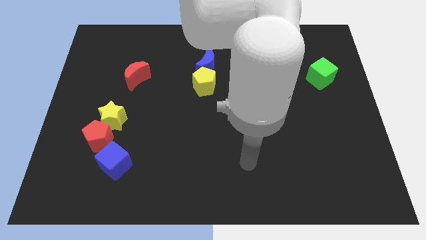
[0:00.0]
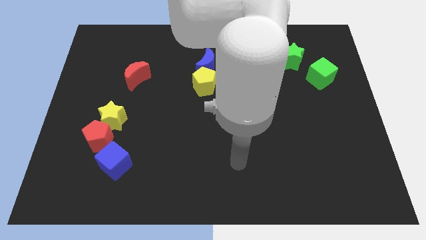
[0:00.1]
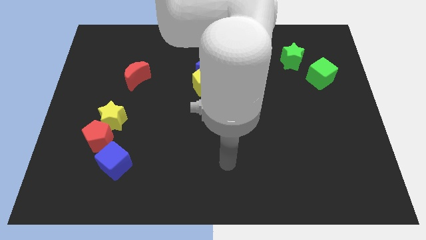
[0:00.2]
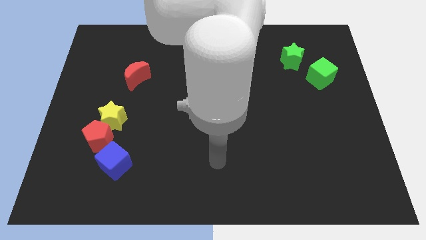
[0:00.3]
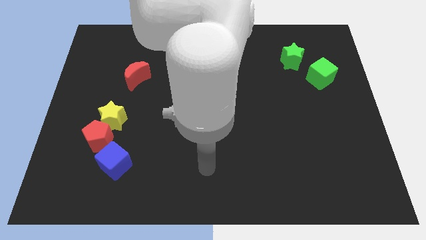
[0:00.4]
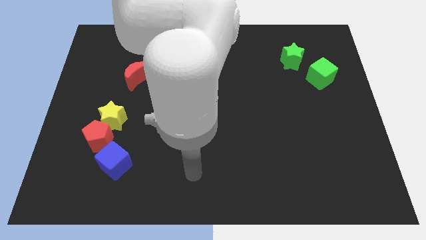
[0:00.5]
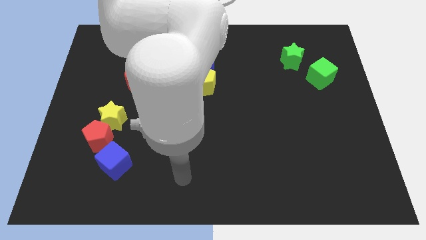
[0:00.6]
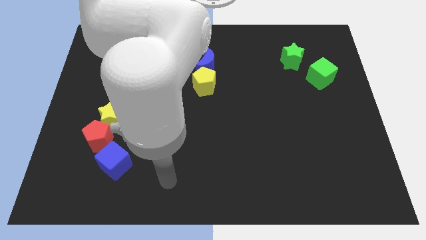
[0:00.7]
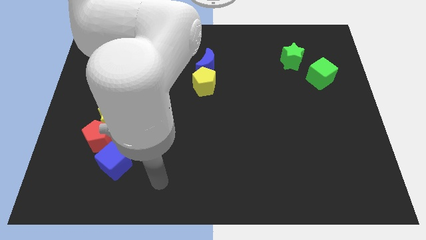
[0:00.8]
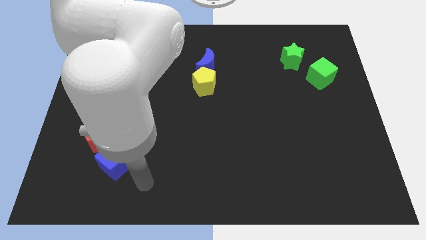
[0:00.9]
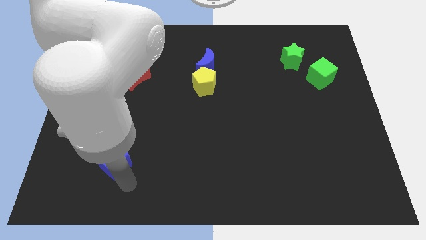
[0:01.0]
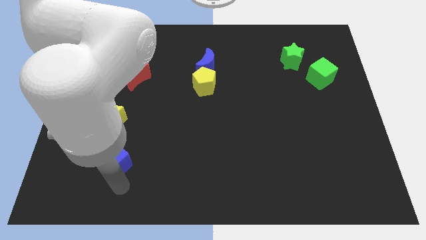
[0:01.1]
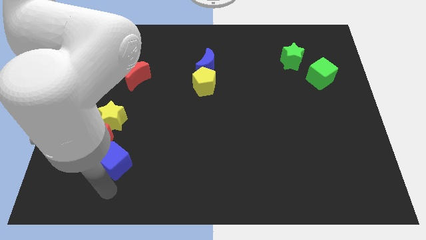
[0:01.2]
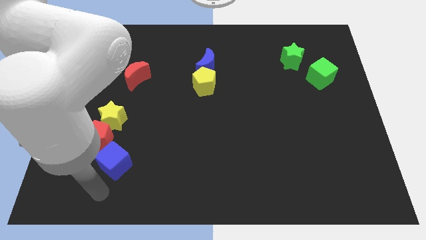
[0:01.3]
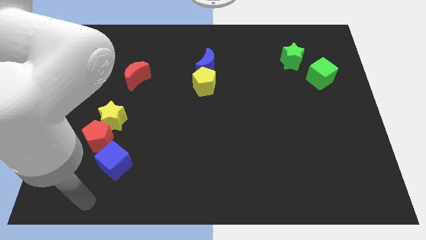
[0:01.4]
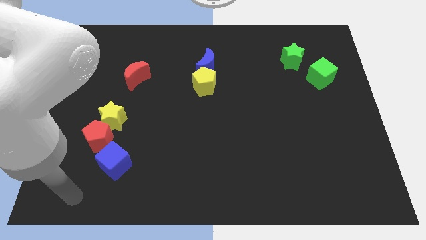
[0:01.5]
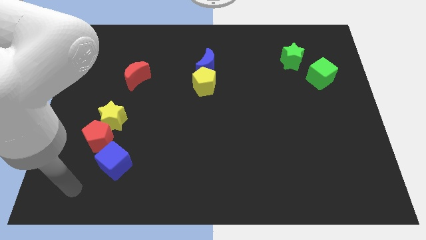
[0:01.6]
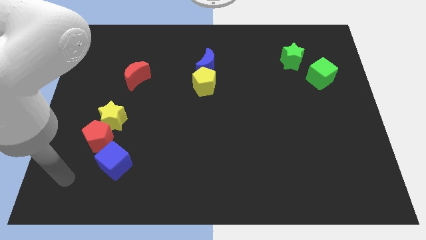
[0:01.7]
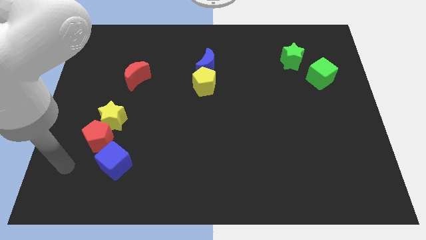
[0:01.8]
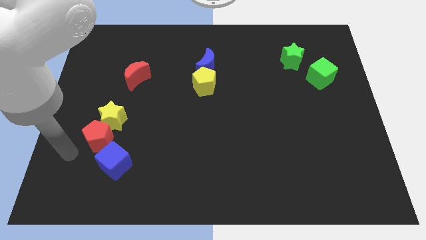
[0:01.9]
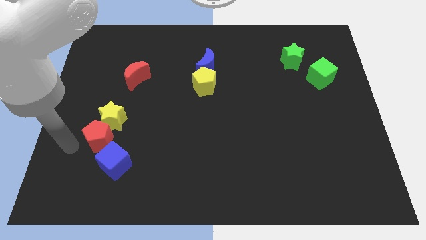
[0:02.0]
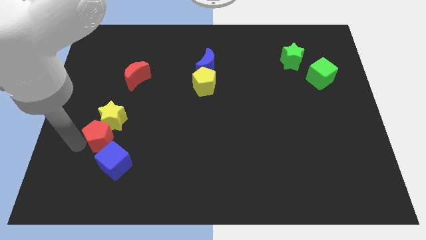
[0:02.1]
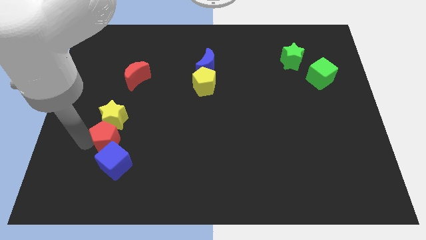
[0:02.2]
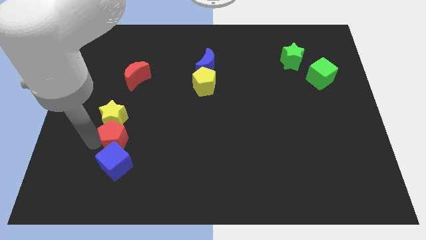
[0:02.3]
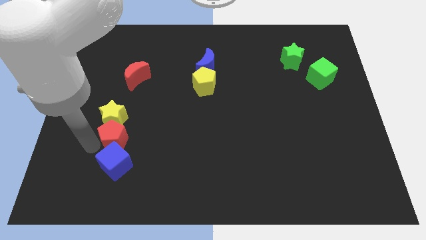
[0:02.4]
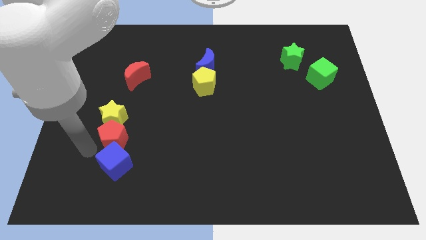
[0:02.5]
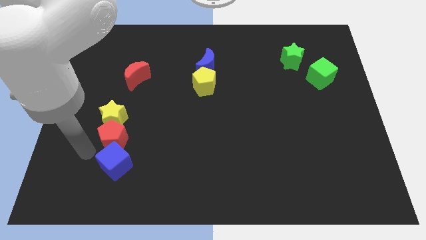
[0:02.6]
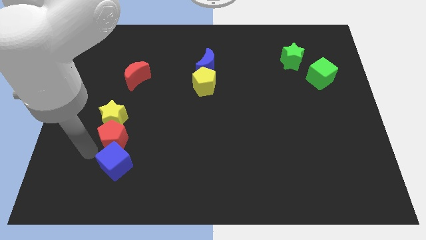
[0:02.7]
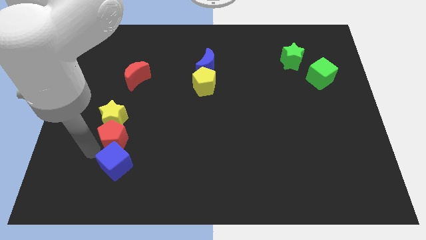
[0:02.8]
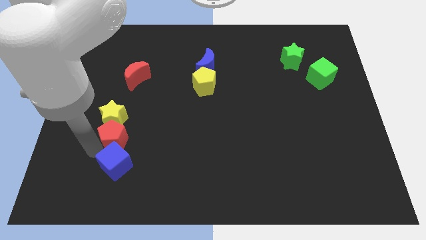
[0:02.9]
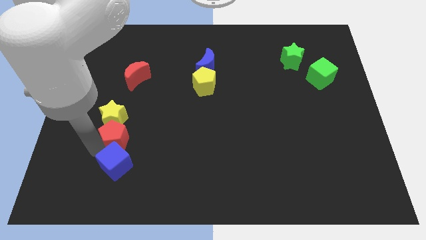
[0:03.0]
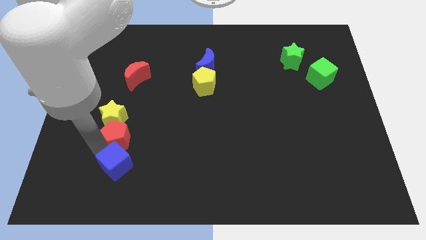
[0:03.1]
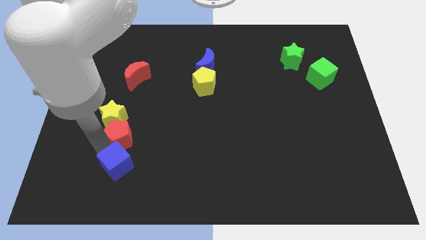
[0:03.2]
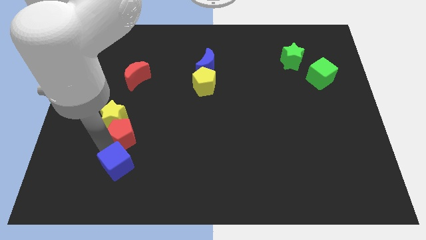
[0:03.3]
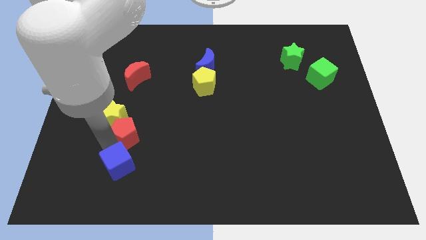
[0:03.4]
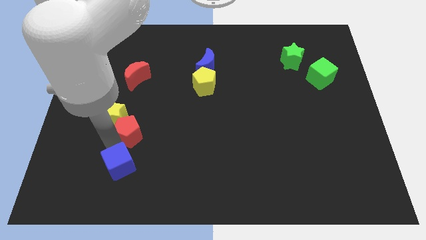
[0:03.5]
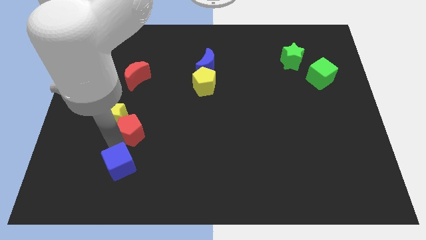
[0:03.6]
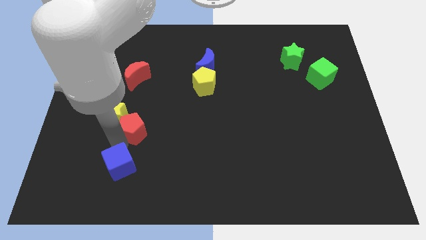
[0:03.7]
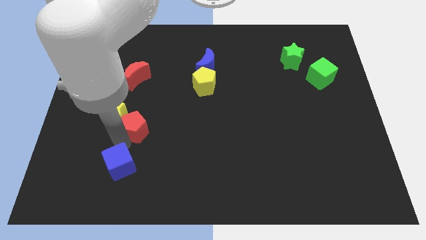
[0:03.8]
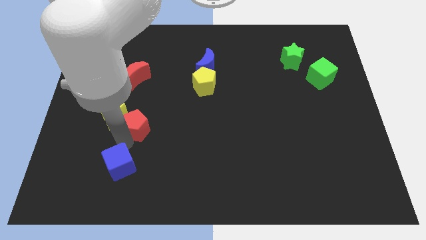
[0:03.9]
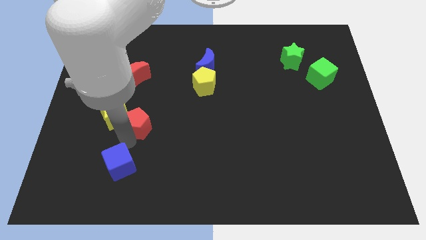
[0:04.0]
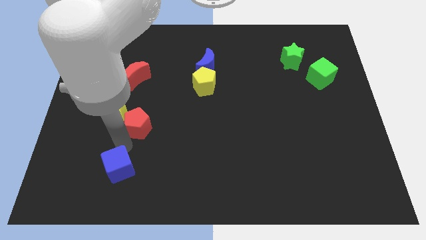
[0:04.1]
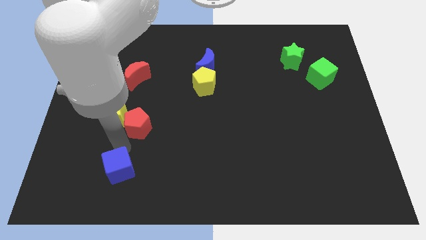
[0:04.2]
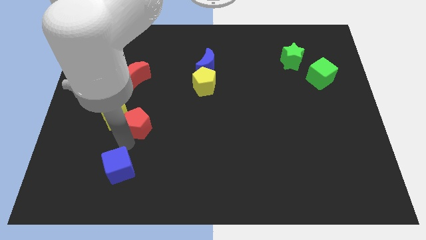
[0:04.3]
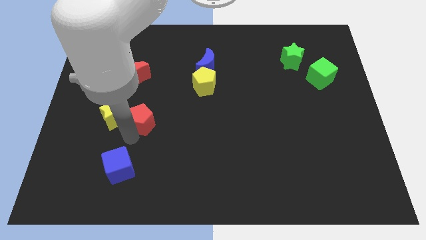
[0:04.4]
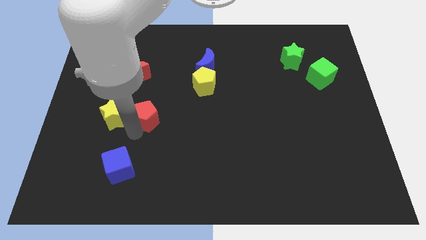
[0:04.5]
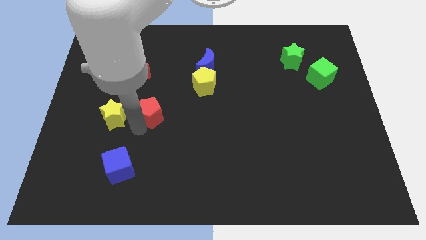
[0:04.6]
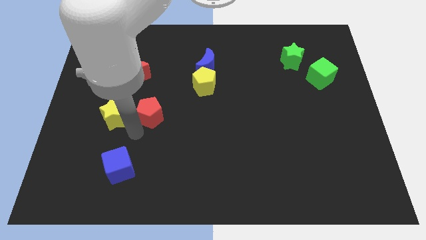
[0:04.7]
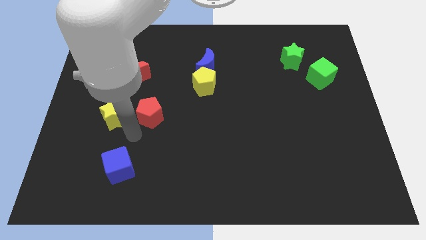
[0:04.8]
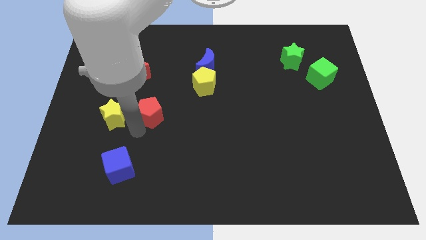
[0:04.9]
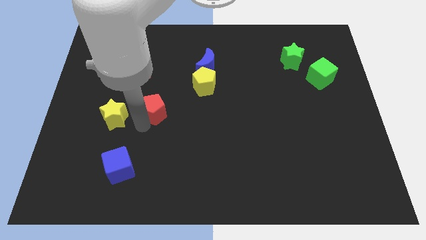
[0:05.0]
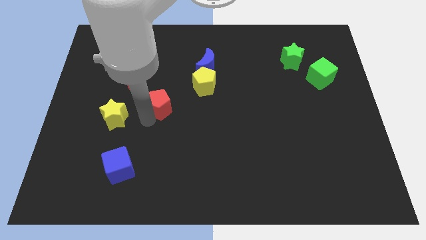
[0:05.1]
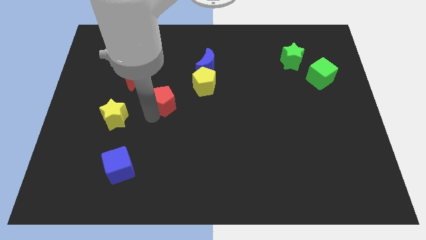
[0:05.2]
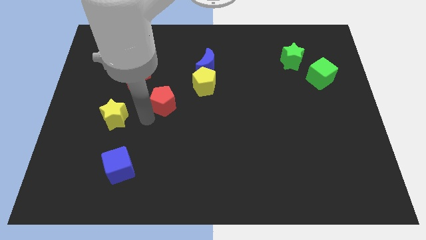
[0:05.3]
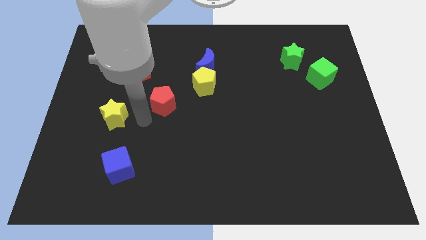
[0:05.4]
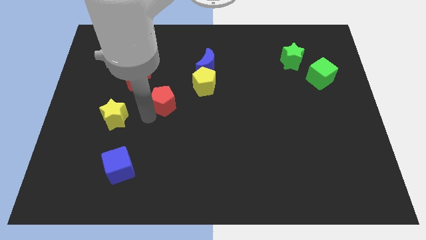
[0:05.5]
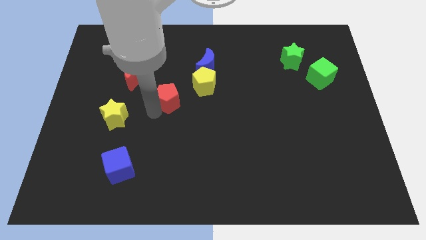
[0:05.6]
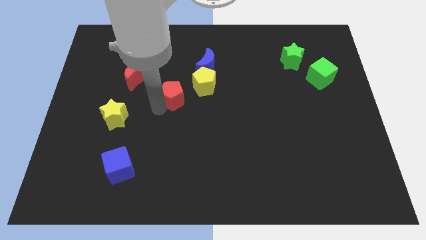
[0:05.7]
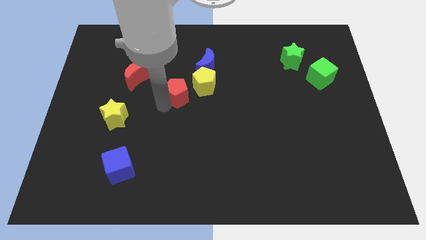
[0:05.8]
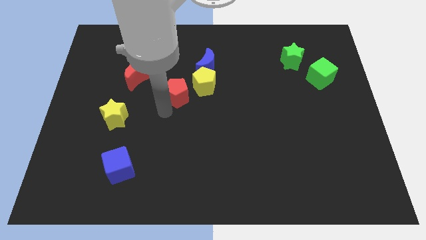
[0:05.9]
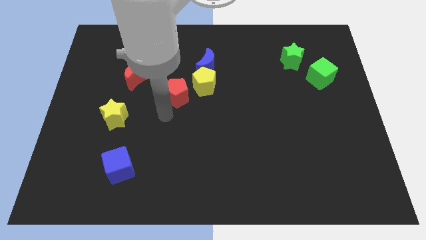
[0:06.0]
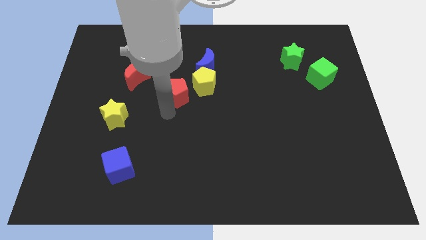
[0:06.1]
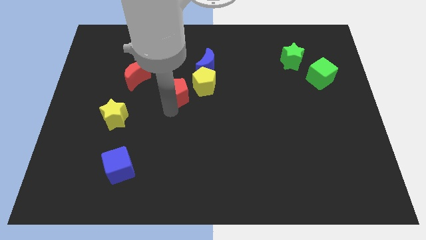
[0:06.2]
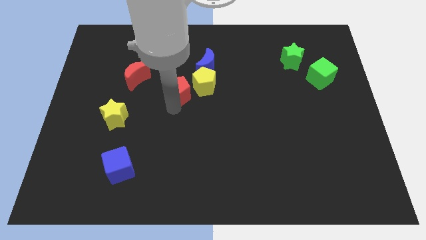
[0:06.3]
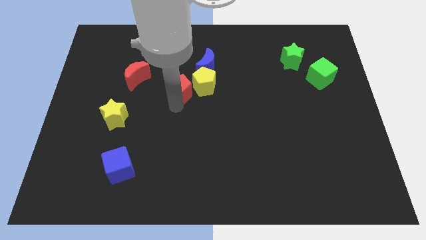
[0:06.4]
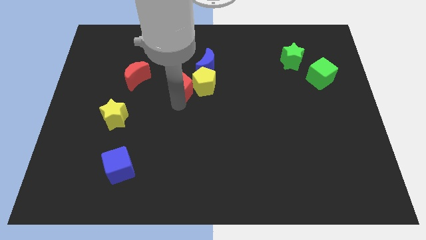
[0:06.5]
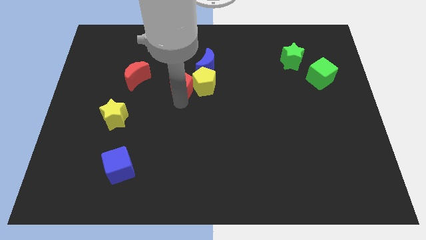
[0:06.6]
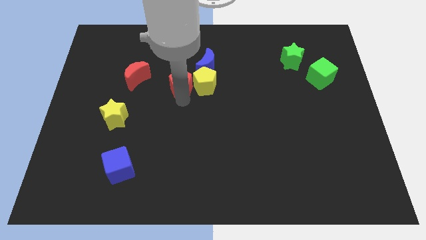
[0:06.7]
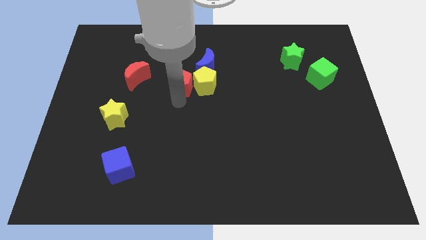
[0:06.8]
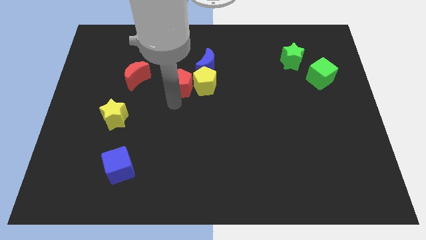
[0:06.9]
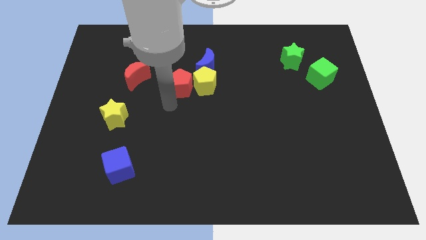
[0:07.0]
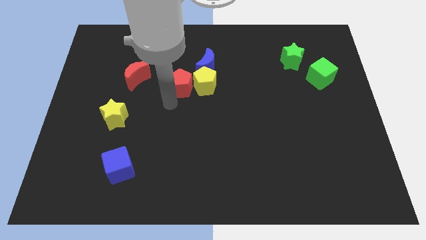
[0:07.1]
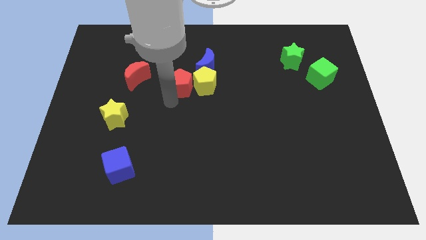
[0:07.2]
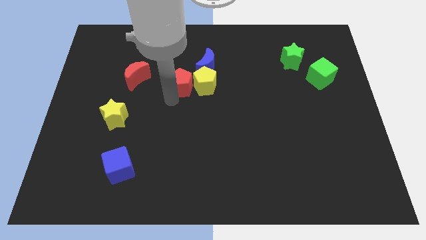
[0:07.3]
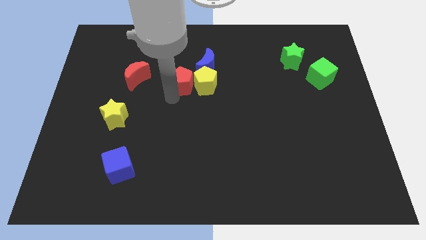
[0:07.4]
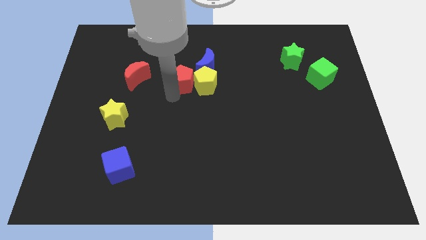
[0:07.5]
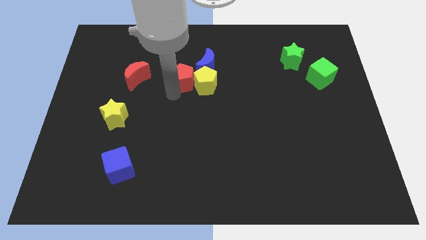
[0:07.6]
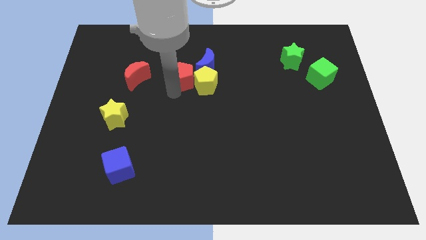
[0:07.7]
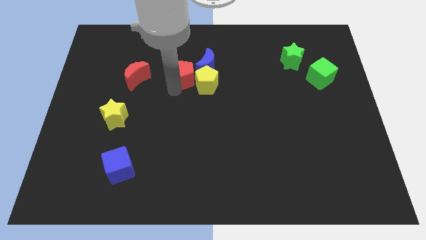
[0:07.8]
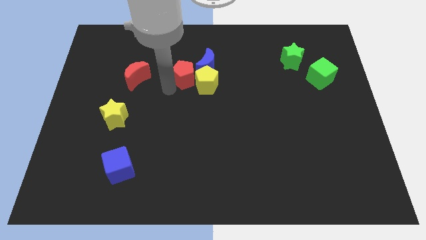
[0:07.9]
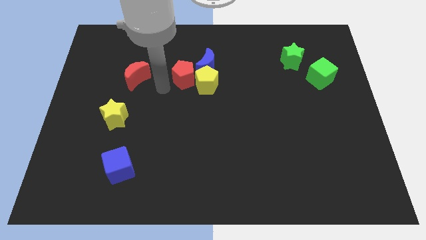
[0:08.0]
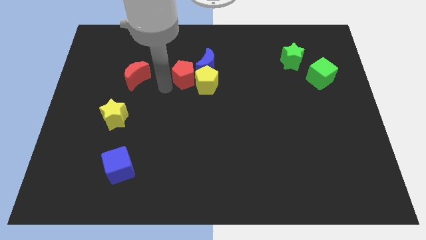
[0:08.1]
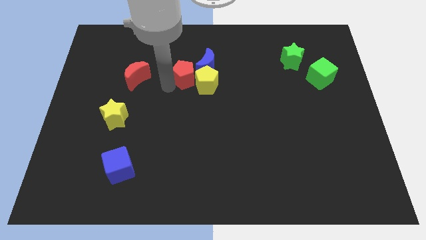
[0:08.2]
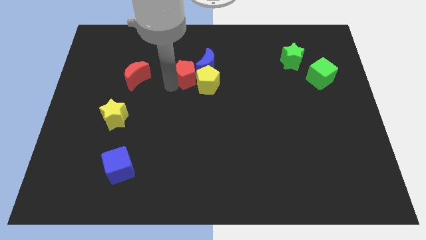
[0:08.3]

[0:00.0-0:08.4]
put the red pentagon to the blue moon
